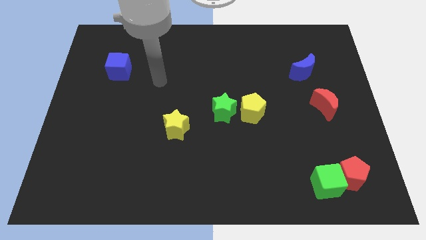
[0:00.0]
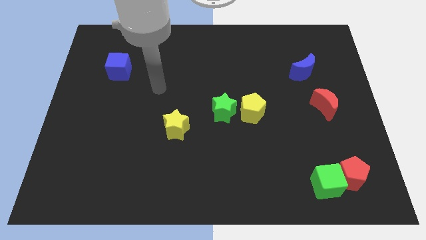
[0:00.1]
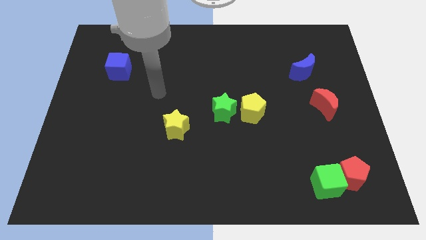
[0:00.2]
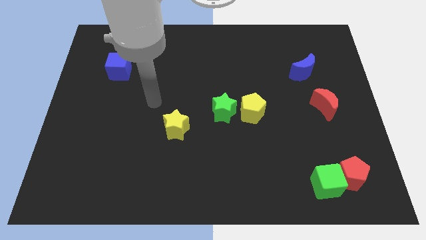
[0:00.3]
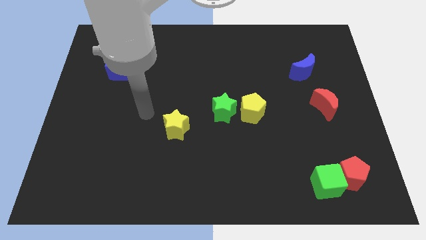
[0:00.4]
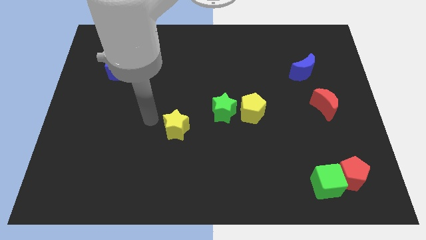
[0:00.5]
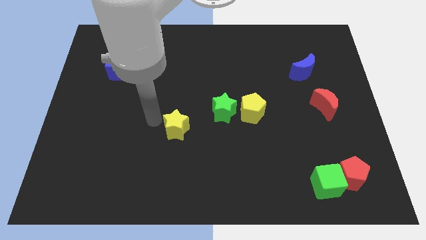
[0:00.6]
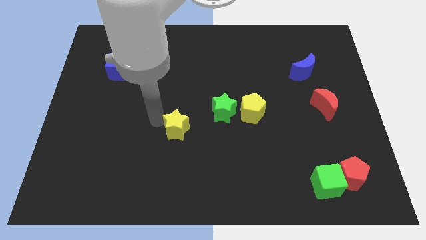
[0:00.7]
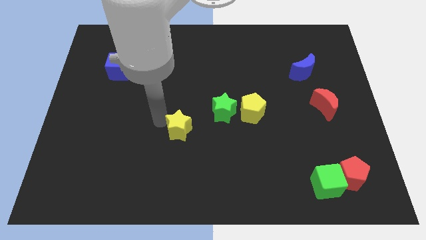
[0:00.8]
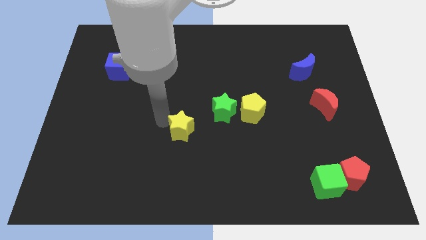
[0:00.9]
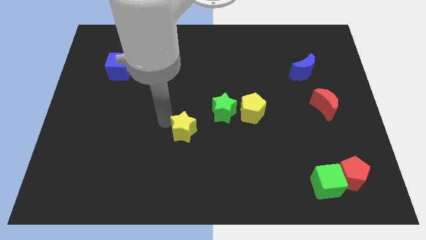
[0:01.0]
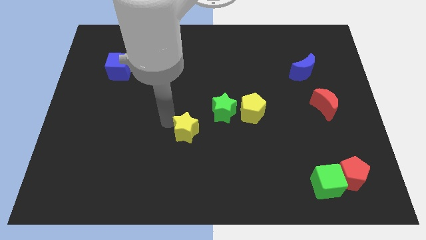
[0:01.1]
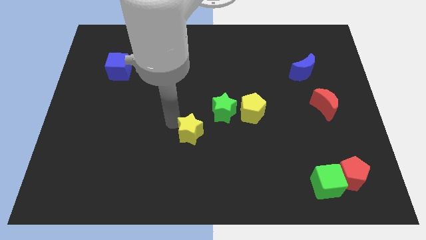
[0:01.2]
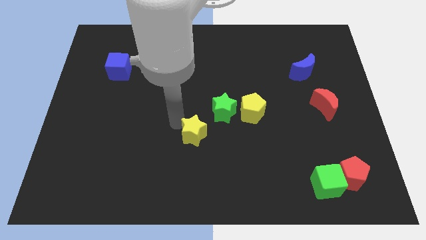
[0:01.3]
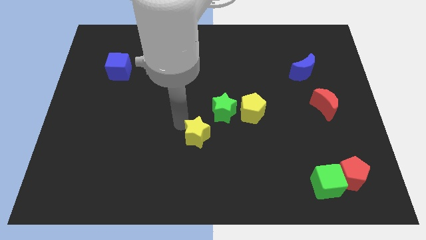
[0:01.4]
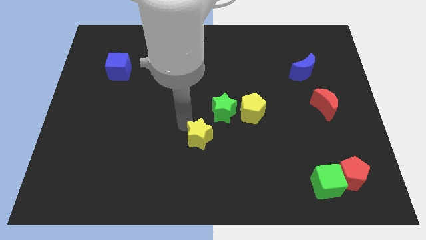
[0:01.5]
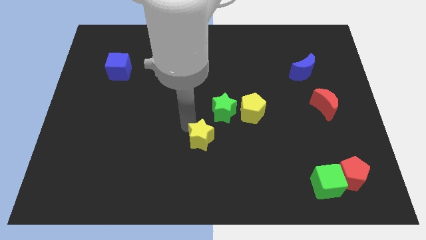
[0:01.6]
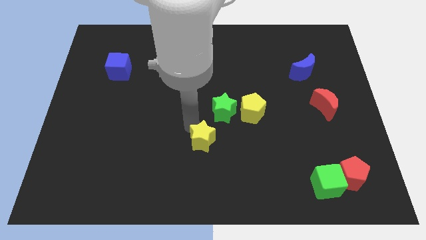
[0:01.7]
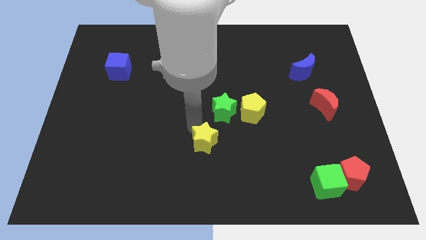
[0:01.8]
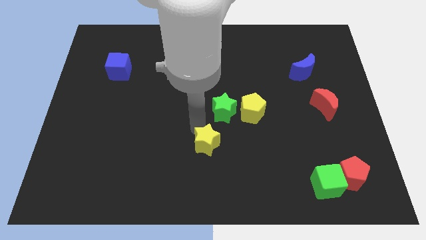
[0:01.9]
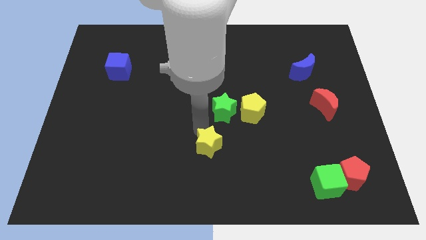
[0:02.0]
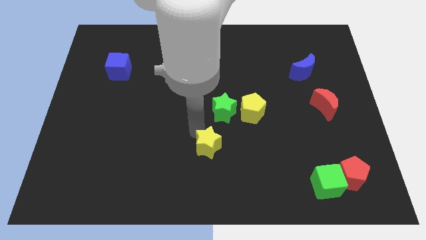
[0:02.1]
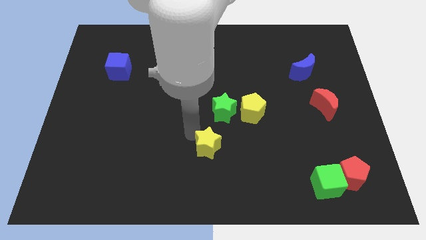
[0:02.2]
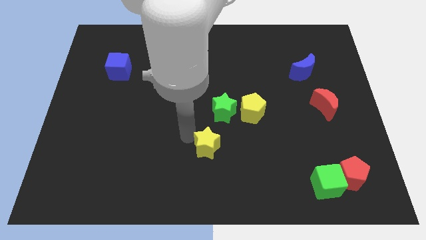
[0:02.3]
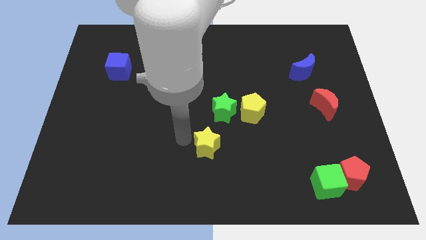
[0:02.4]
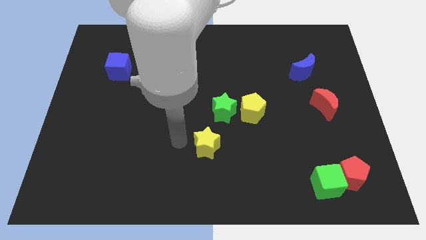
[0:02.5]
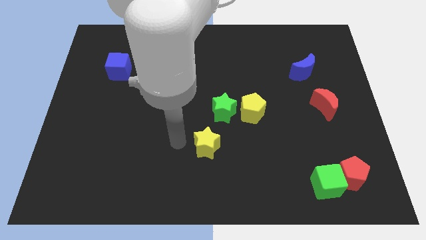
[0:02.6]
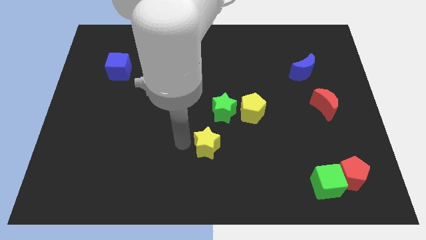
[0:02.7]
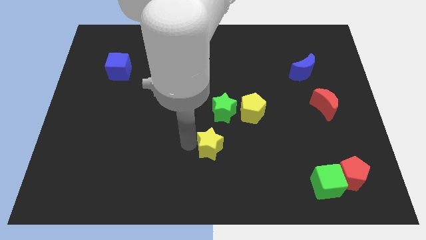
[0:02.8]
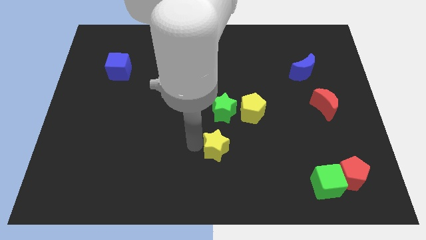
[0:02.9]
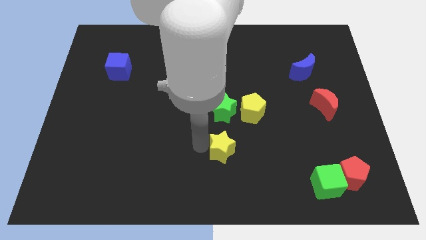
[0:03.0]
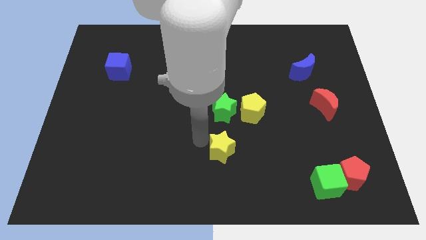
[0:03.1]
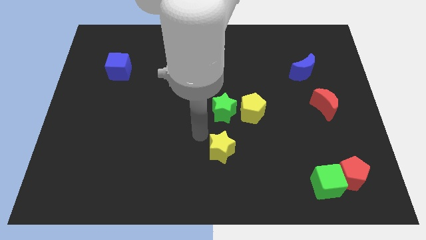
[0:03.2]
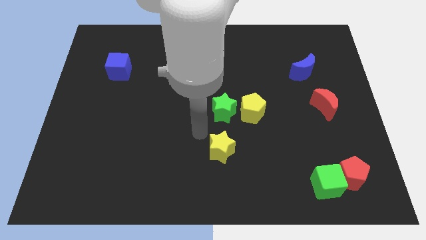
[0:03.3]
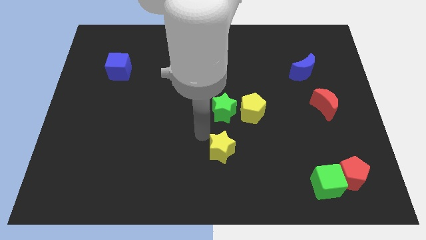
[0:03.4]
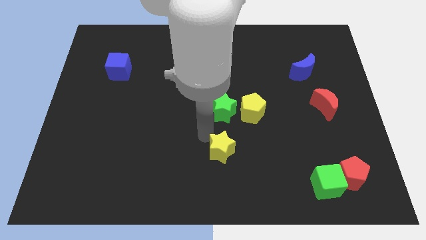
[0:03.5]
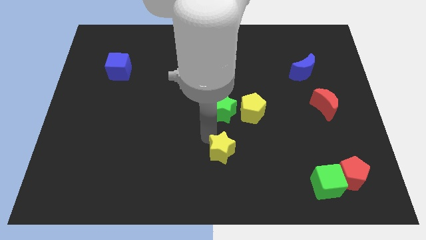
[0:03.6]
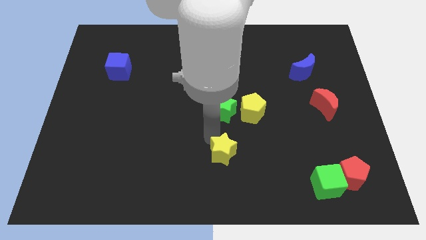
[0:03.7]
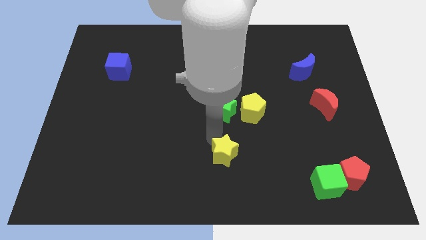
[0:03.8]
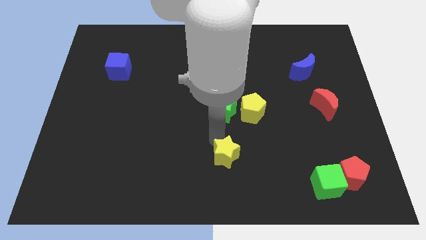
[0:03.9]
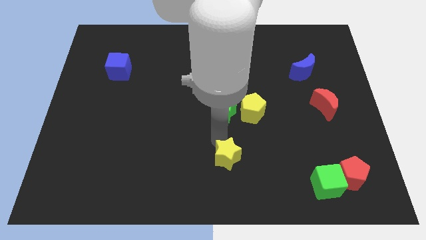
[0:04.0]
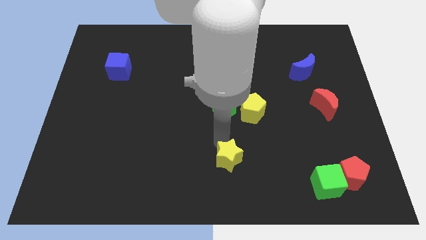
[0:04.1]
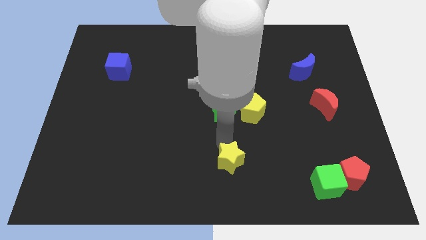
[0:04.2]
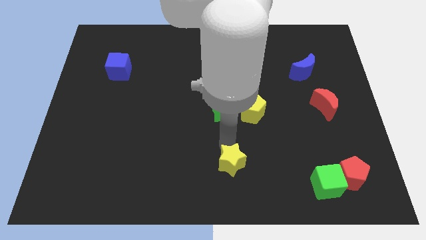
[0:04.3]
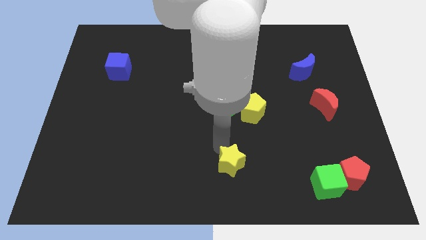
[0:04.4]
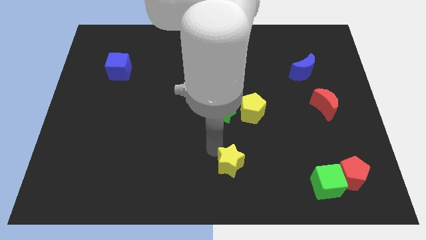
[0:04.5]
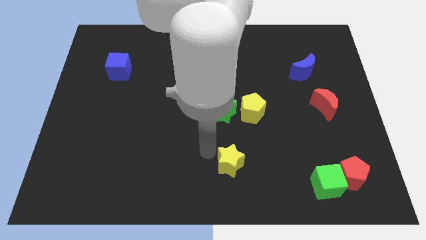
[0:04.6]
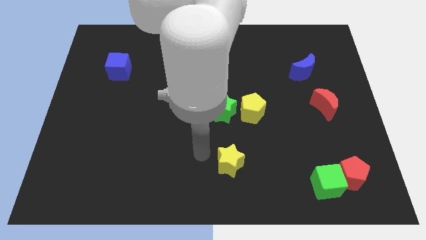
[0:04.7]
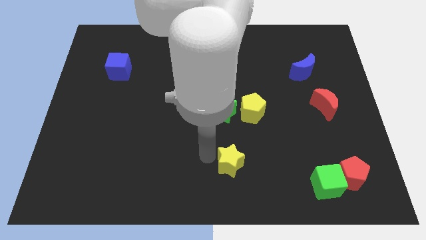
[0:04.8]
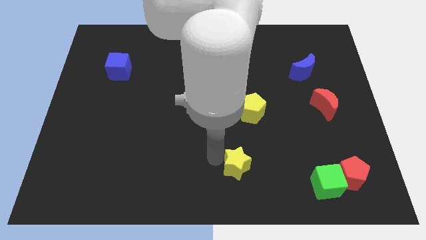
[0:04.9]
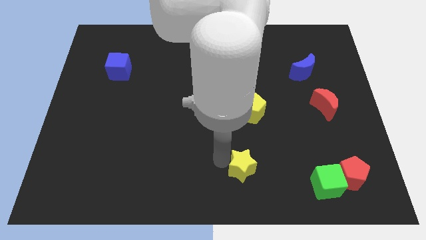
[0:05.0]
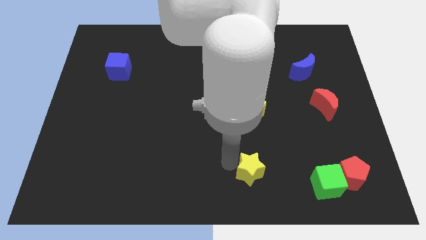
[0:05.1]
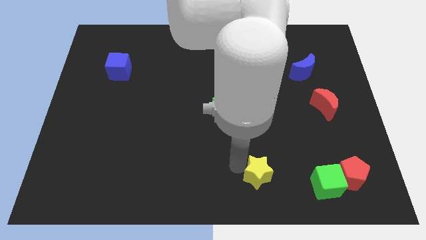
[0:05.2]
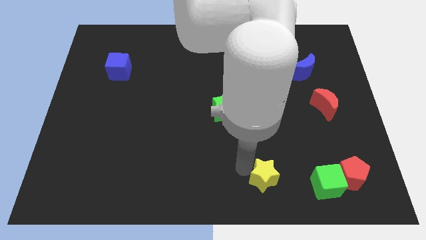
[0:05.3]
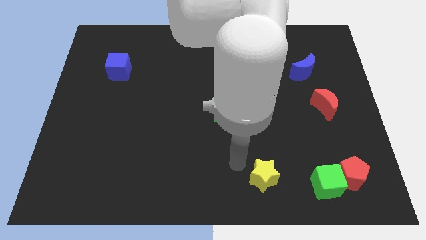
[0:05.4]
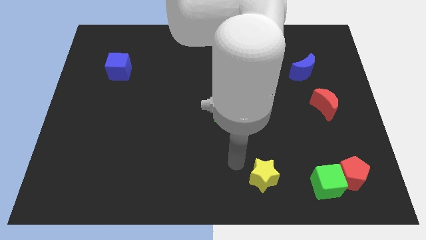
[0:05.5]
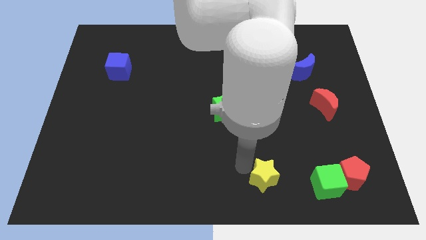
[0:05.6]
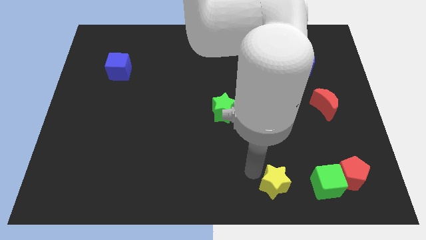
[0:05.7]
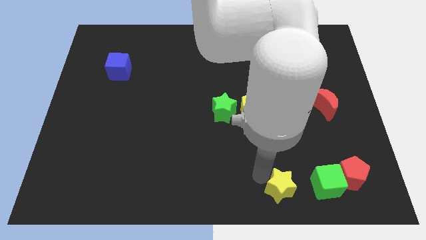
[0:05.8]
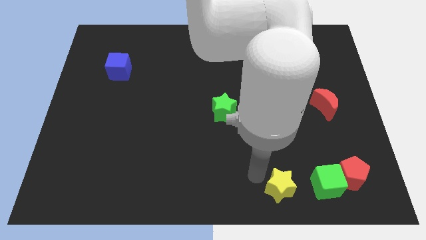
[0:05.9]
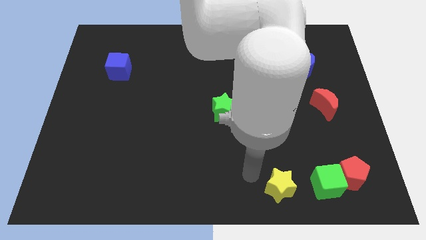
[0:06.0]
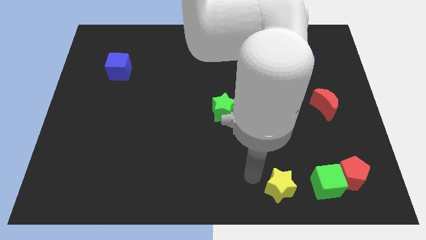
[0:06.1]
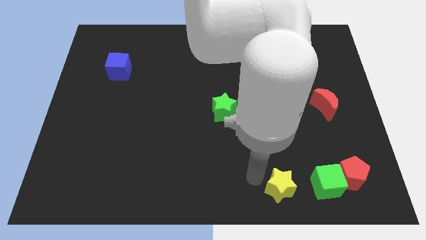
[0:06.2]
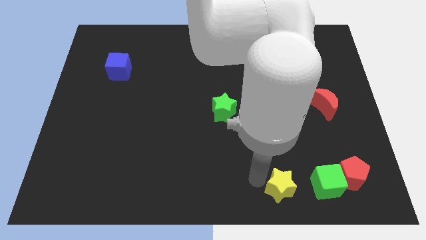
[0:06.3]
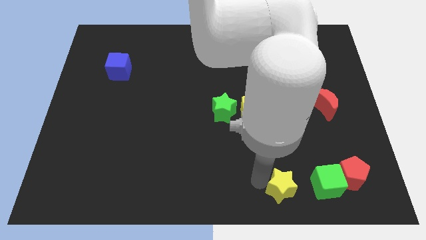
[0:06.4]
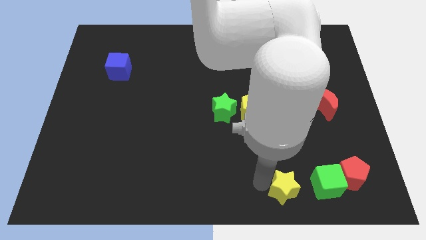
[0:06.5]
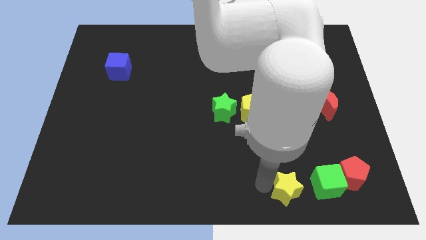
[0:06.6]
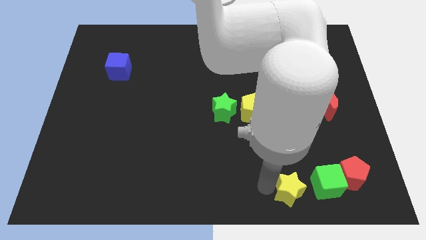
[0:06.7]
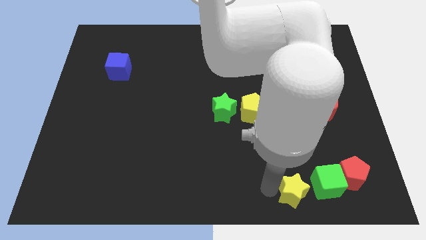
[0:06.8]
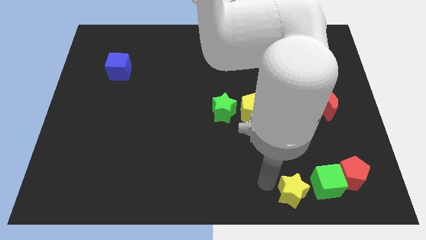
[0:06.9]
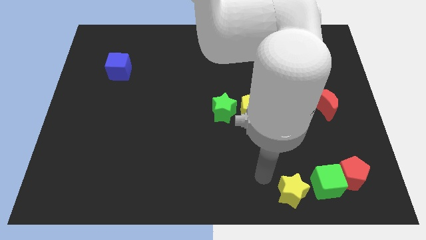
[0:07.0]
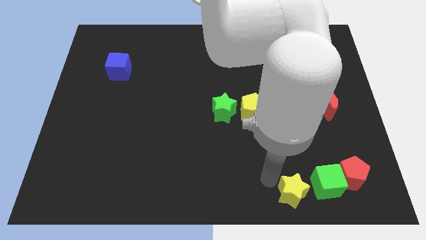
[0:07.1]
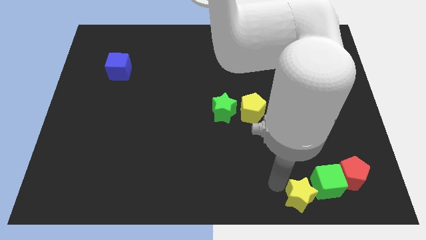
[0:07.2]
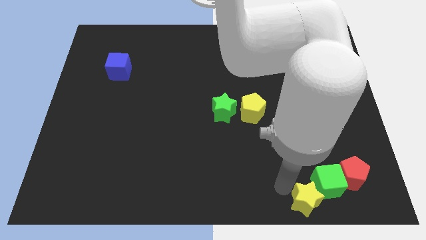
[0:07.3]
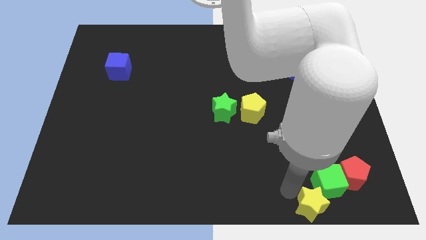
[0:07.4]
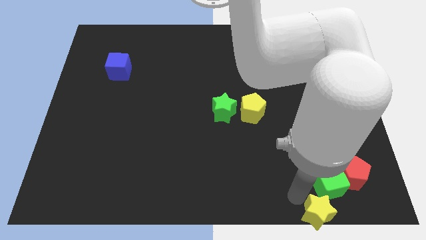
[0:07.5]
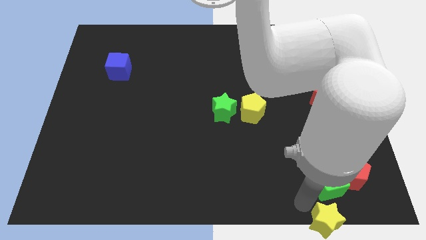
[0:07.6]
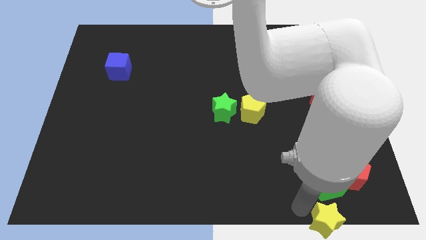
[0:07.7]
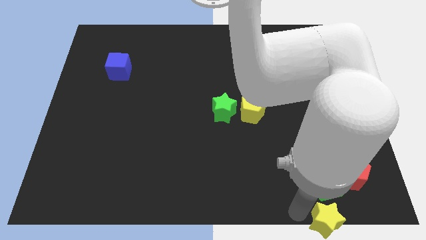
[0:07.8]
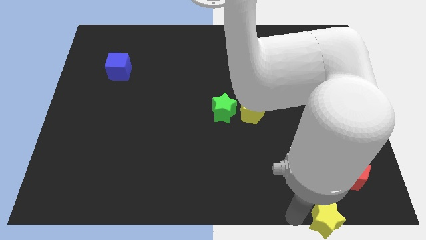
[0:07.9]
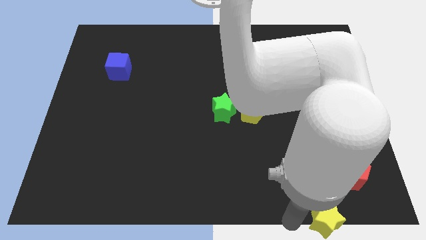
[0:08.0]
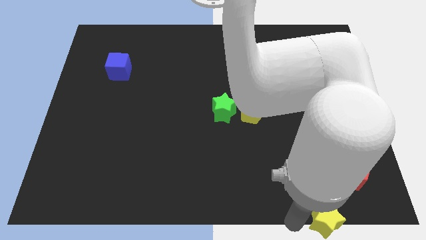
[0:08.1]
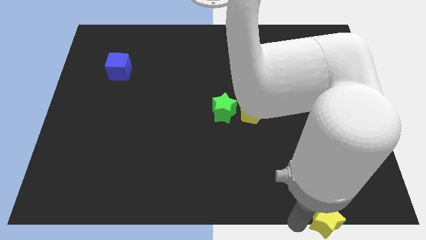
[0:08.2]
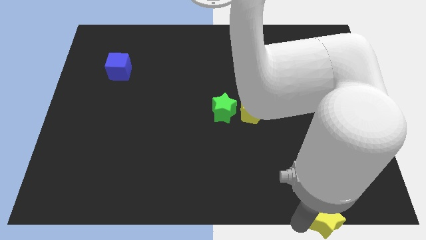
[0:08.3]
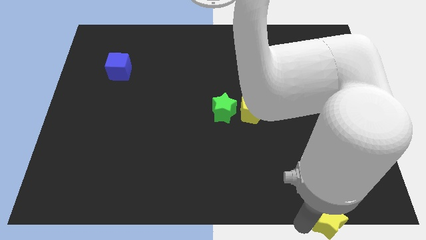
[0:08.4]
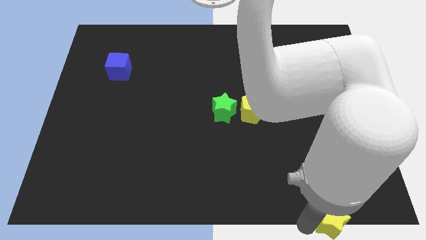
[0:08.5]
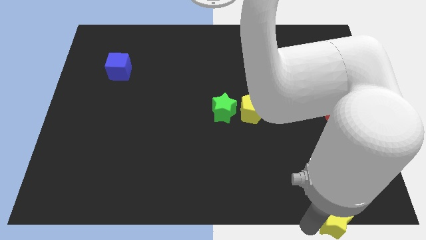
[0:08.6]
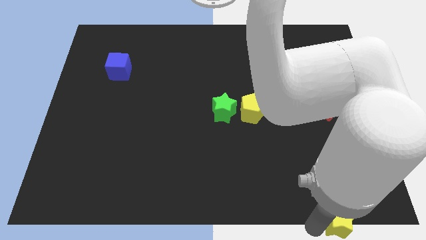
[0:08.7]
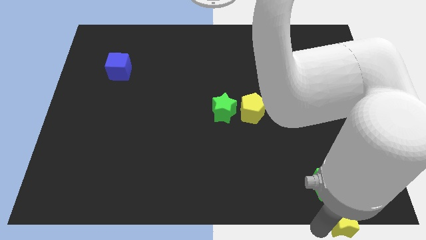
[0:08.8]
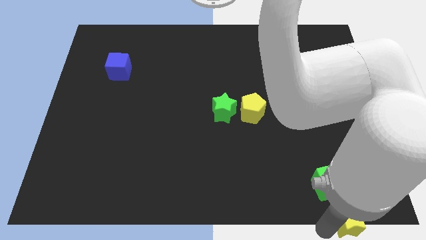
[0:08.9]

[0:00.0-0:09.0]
push the yellow star to the lower right corner
